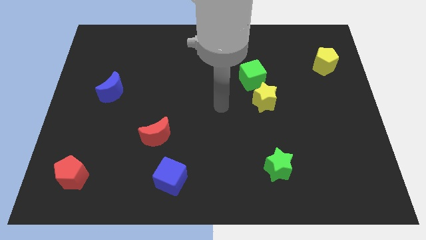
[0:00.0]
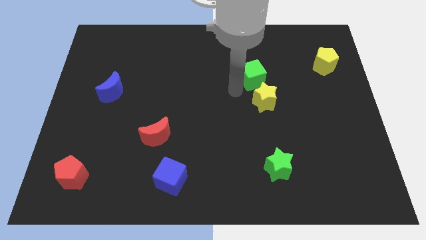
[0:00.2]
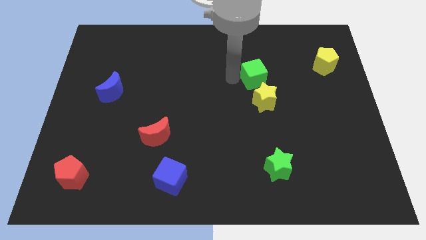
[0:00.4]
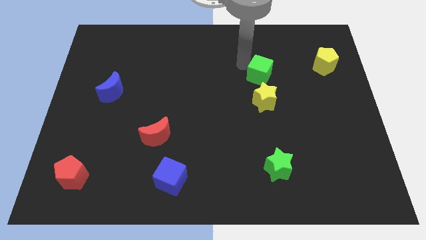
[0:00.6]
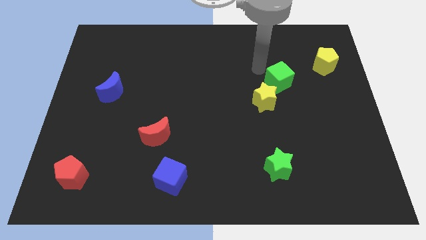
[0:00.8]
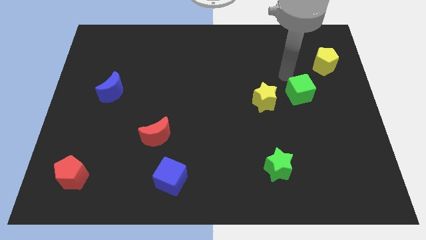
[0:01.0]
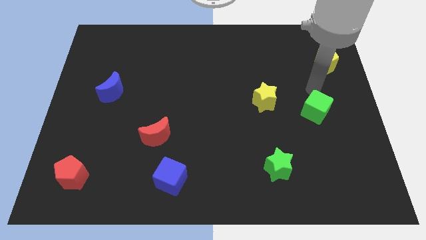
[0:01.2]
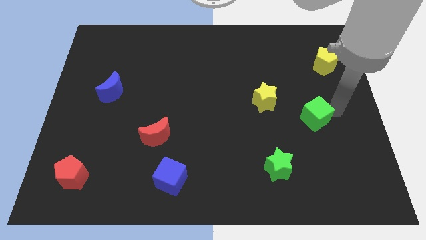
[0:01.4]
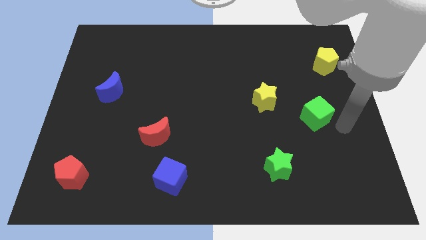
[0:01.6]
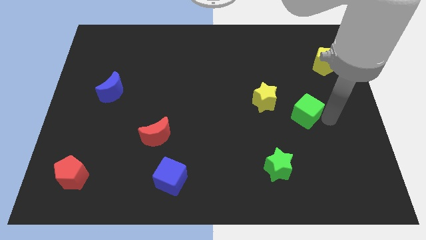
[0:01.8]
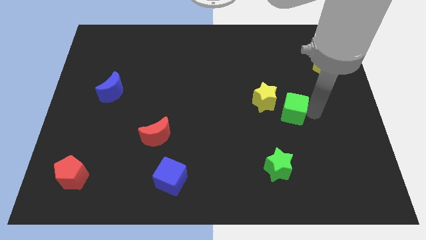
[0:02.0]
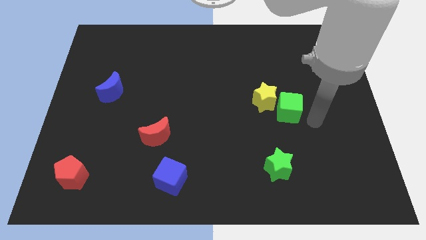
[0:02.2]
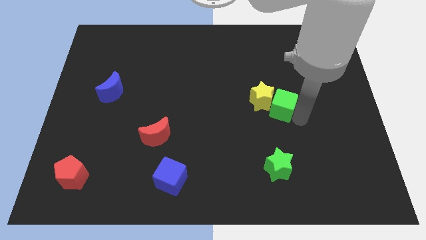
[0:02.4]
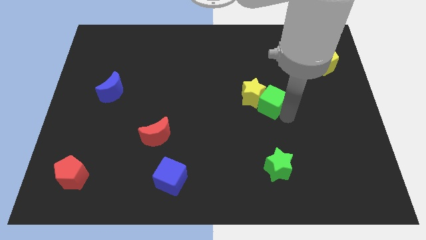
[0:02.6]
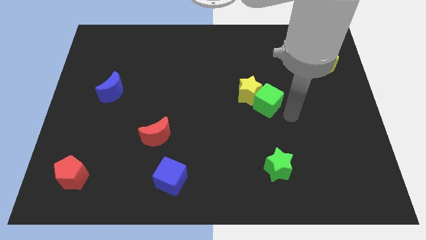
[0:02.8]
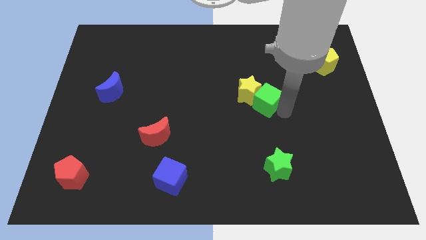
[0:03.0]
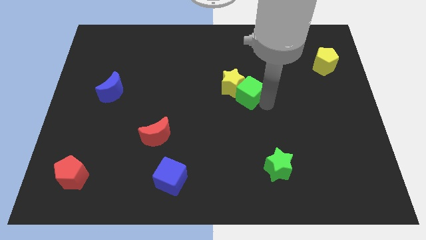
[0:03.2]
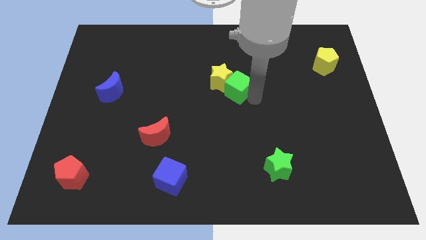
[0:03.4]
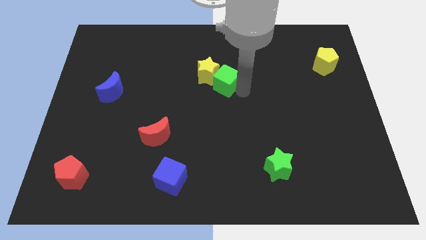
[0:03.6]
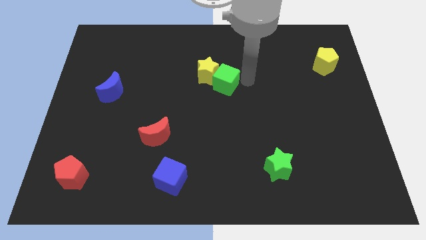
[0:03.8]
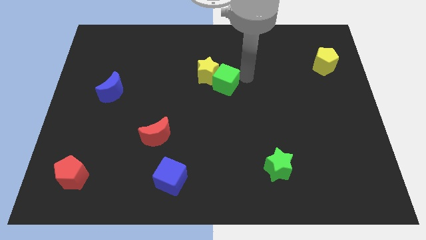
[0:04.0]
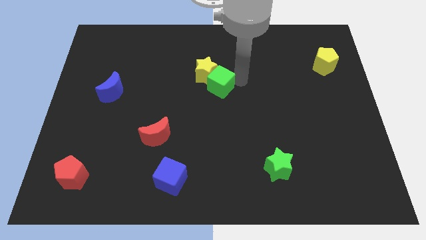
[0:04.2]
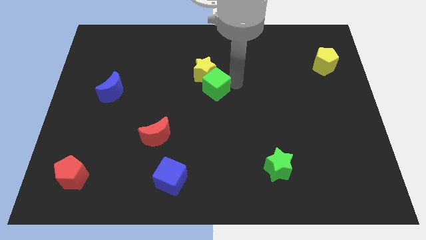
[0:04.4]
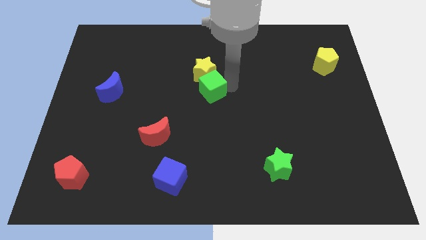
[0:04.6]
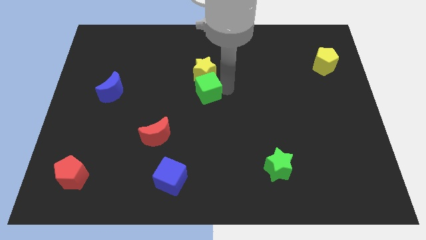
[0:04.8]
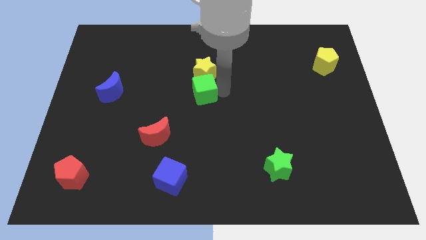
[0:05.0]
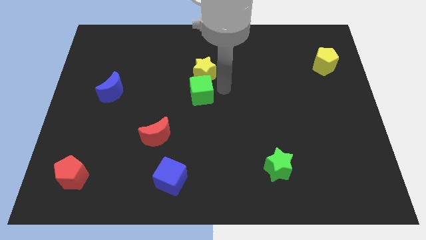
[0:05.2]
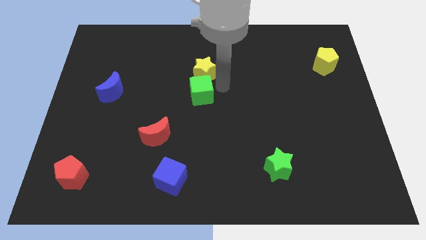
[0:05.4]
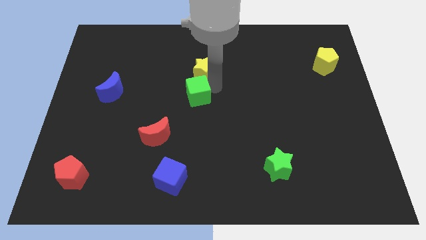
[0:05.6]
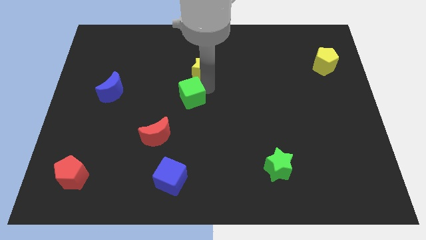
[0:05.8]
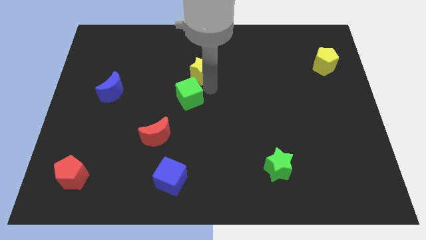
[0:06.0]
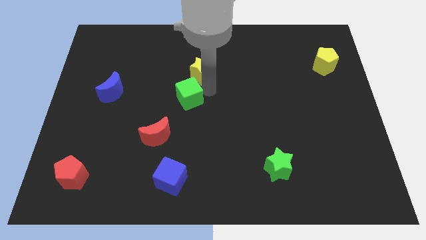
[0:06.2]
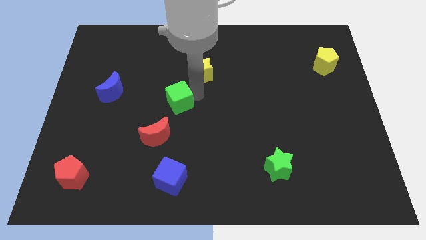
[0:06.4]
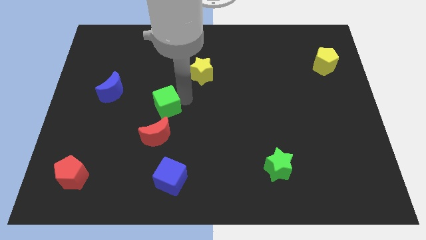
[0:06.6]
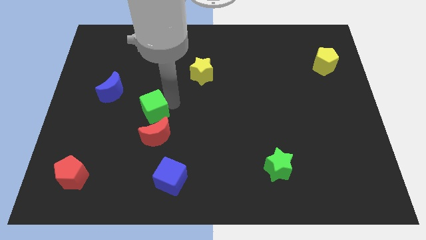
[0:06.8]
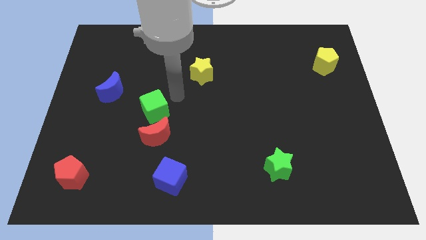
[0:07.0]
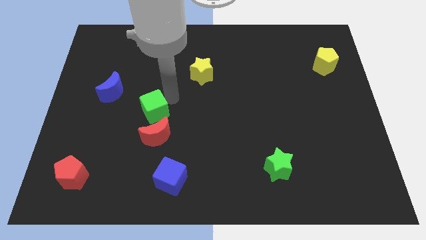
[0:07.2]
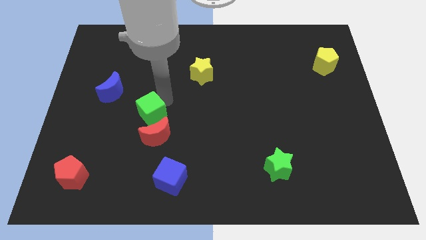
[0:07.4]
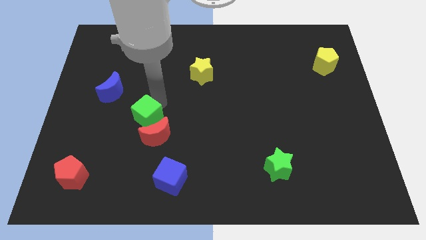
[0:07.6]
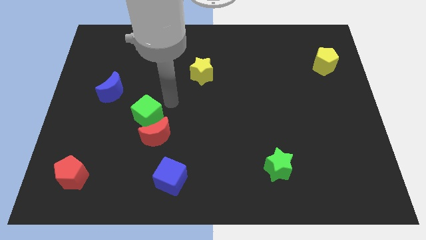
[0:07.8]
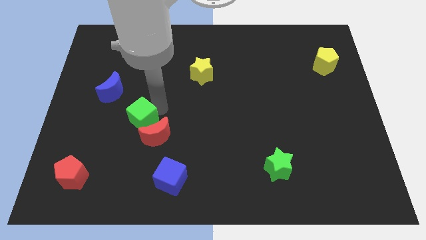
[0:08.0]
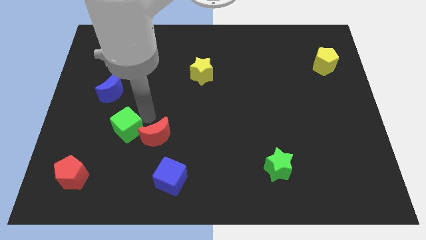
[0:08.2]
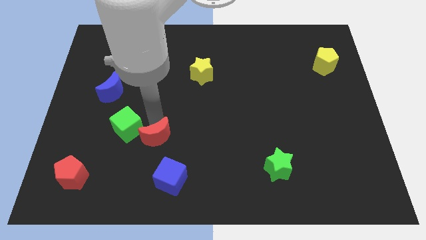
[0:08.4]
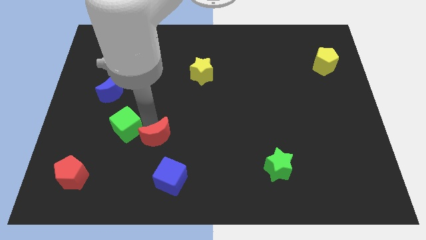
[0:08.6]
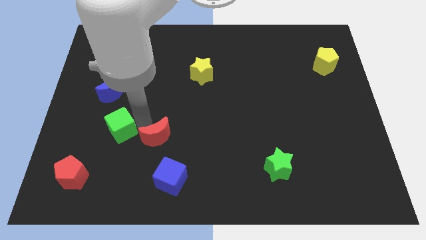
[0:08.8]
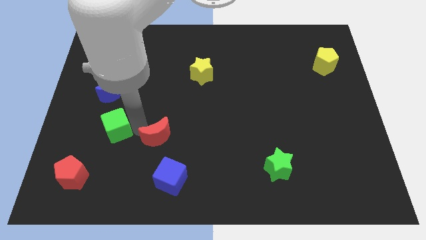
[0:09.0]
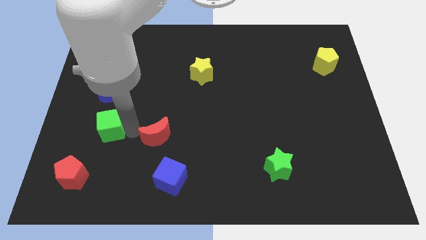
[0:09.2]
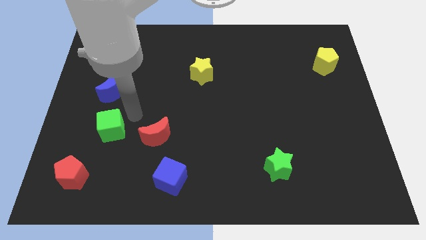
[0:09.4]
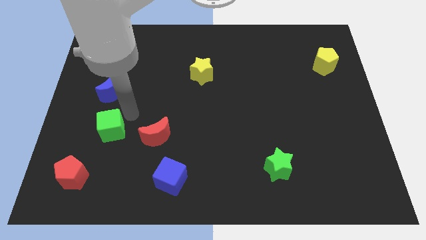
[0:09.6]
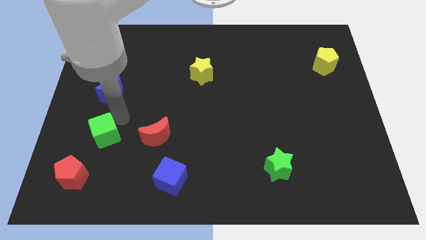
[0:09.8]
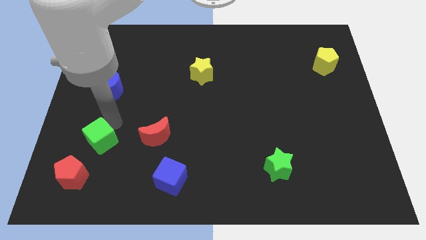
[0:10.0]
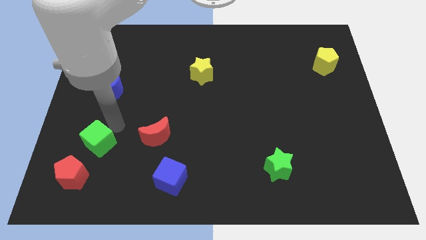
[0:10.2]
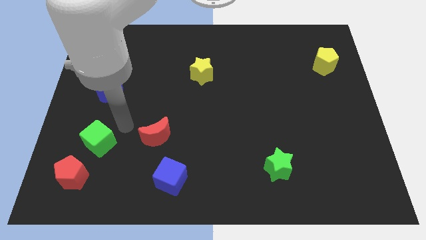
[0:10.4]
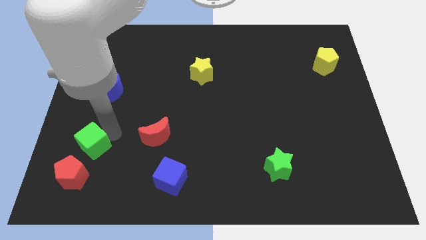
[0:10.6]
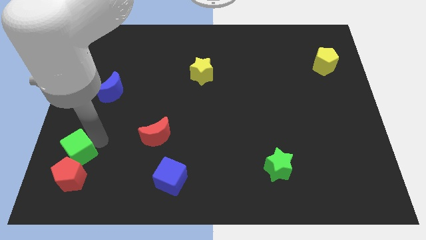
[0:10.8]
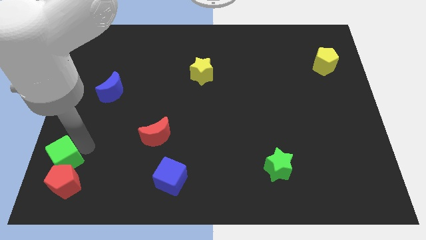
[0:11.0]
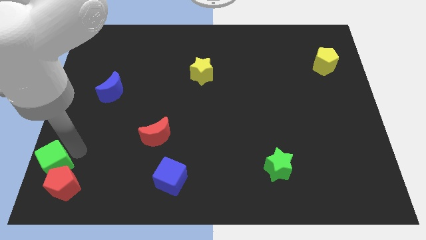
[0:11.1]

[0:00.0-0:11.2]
move the green cube to the bottom left of the board
